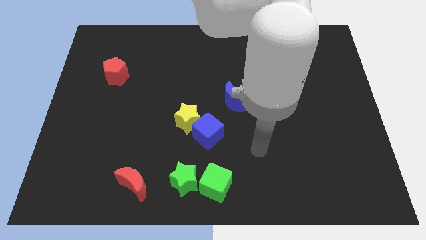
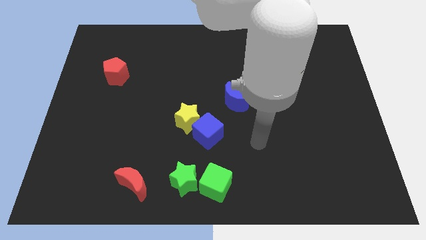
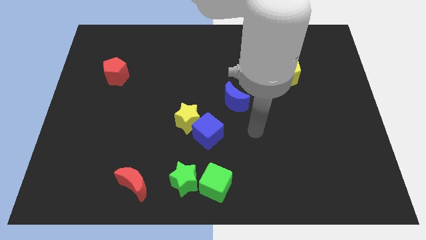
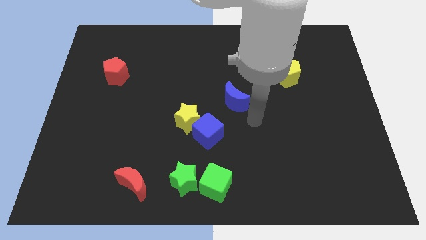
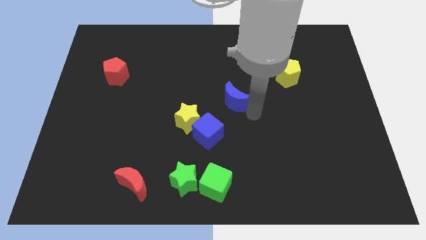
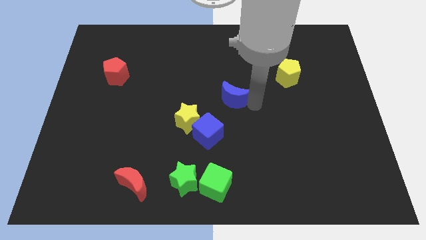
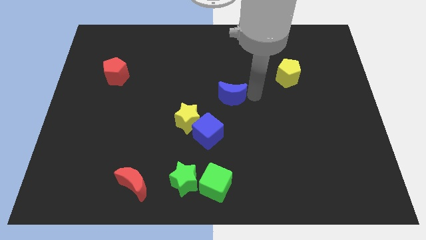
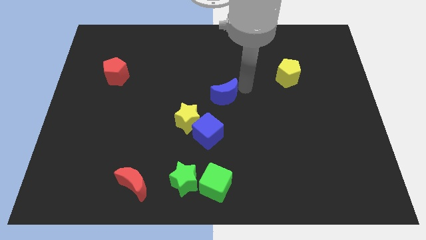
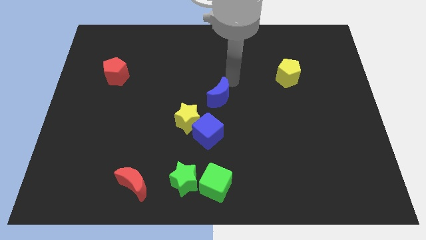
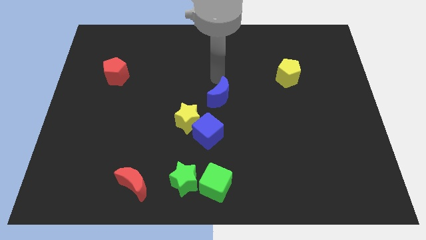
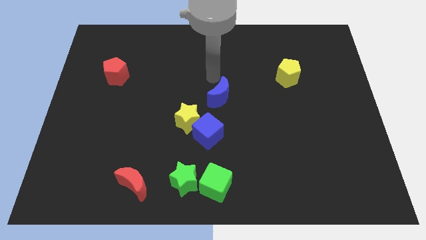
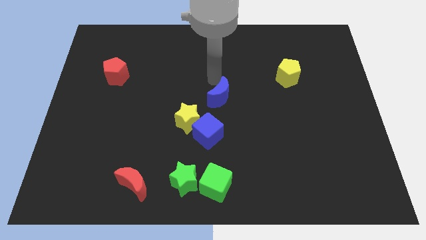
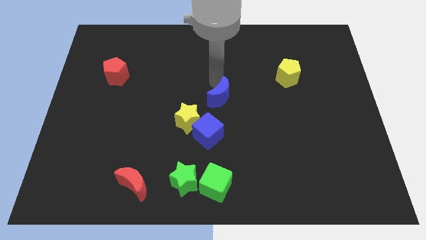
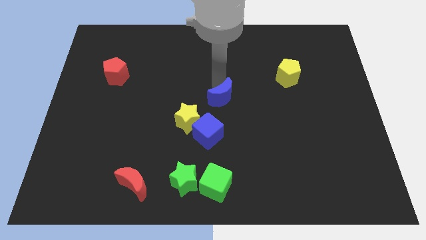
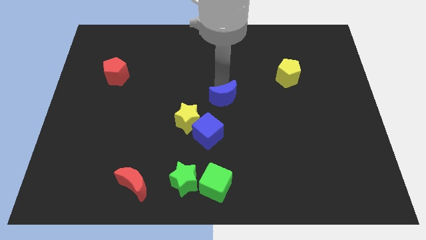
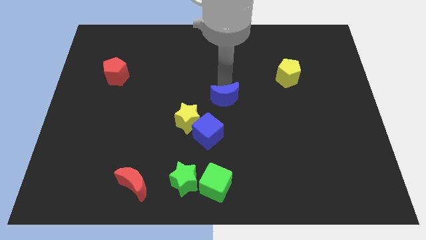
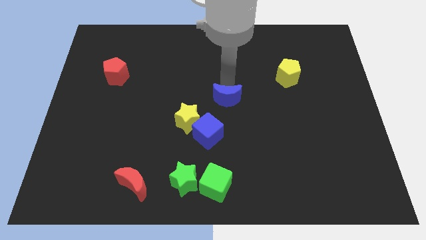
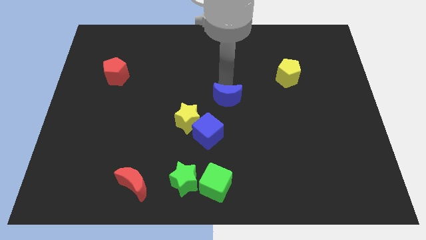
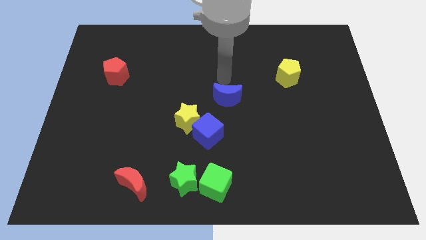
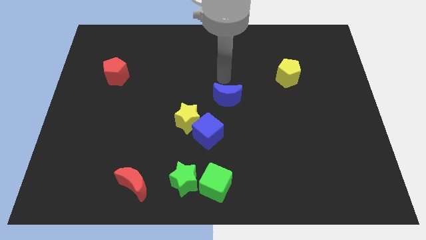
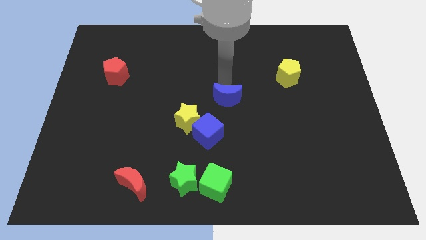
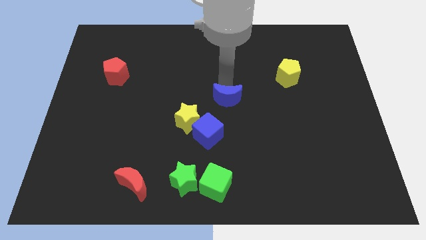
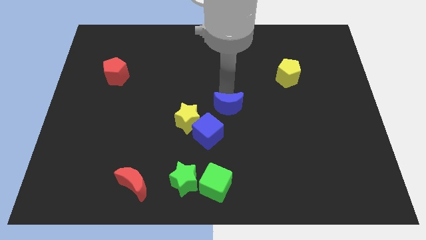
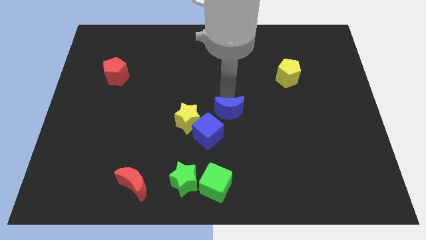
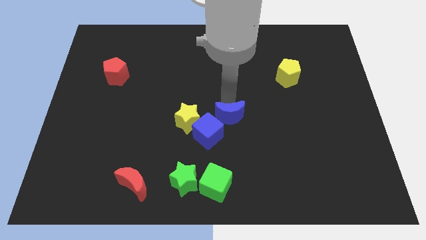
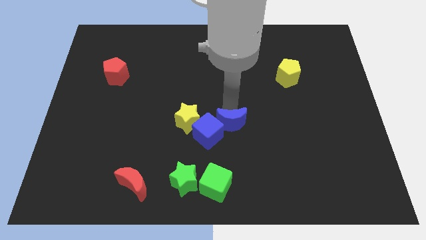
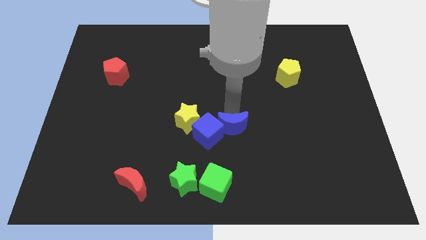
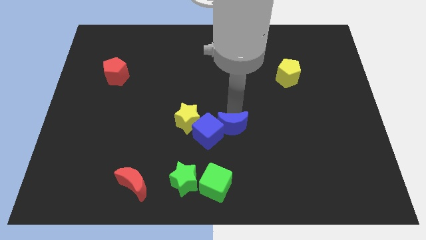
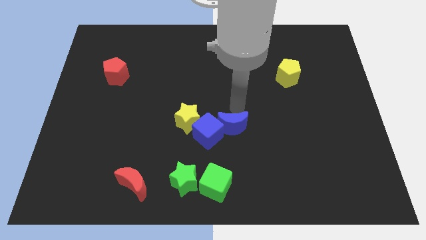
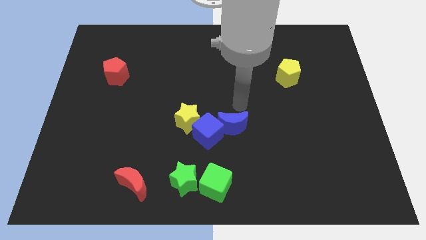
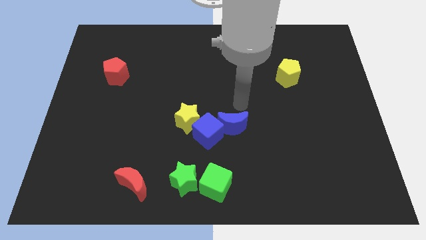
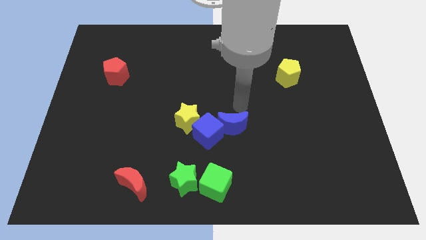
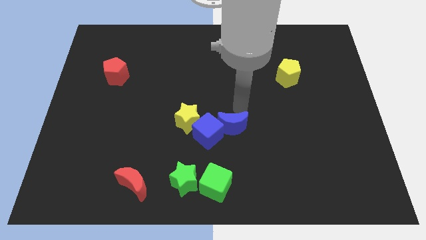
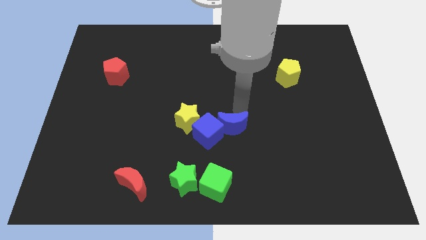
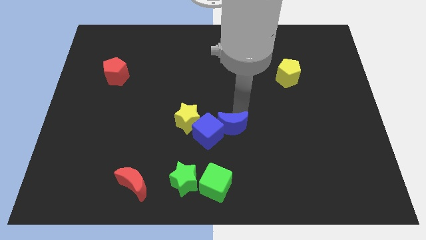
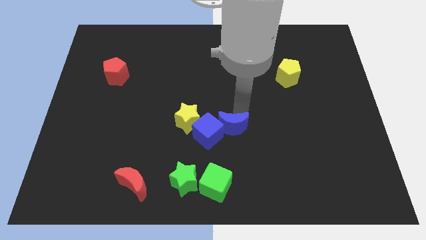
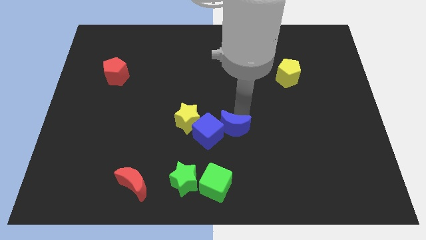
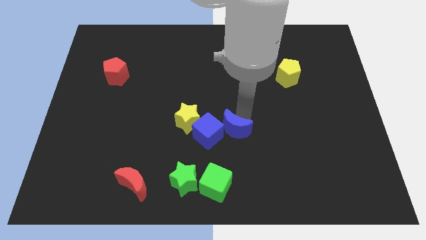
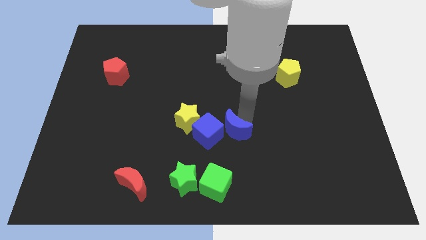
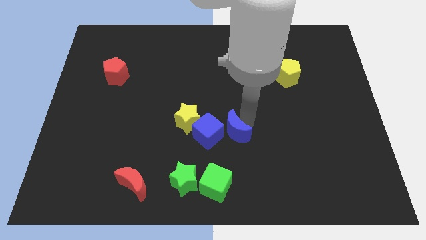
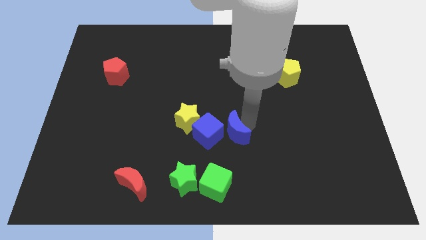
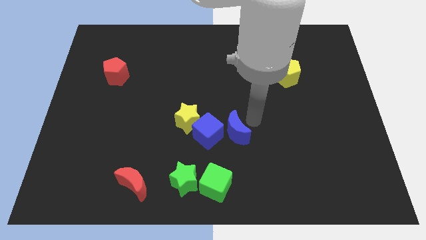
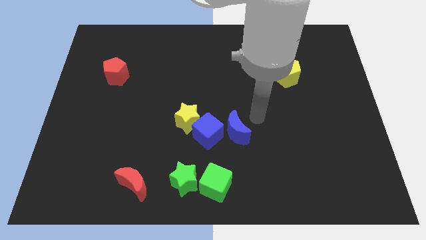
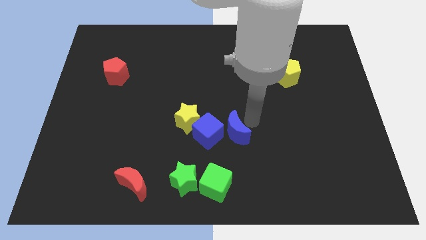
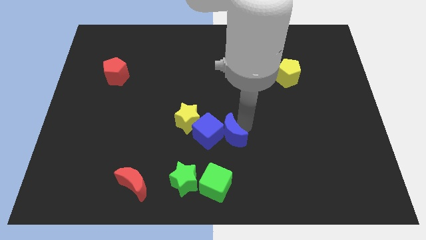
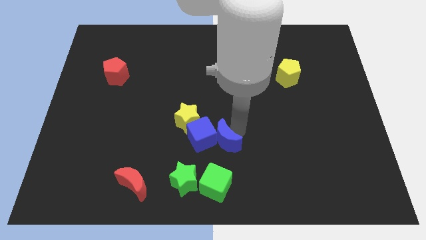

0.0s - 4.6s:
slightly push the blue moon downwards and to the left diagonally

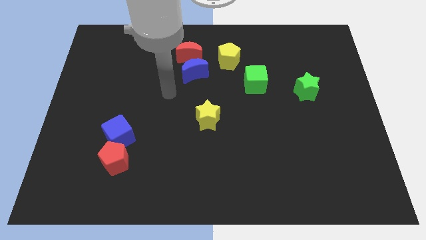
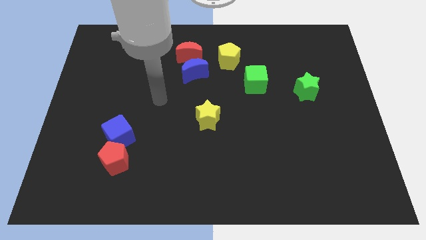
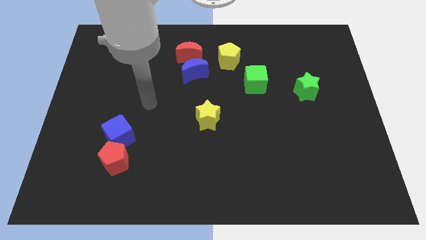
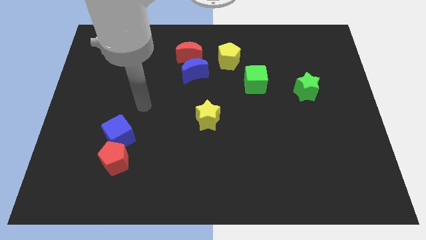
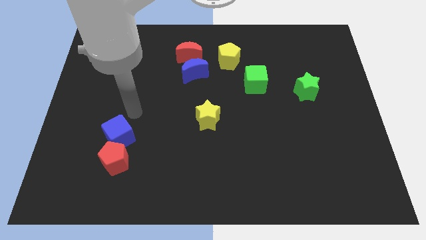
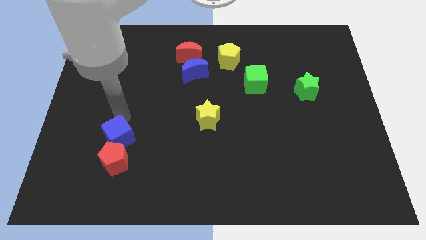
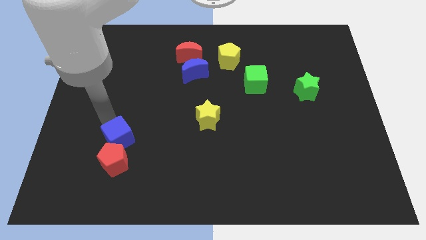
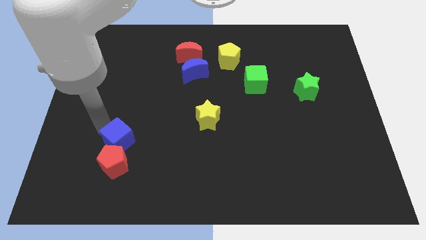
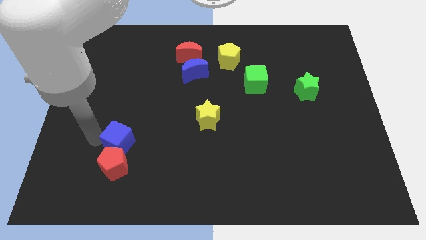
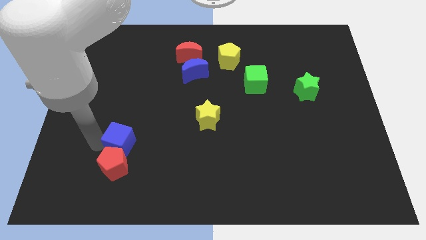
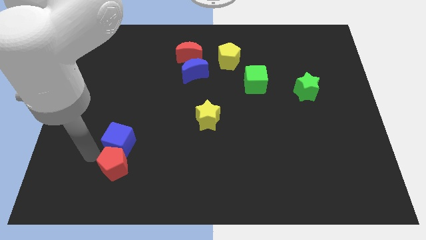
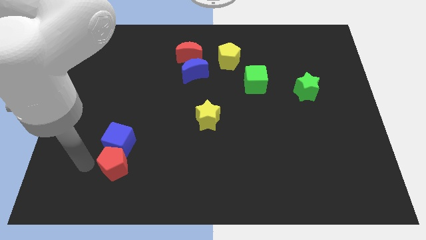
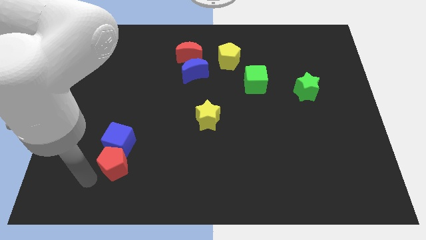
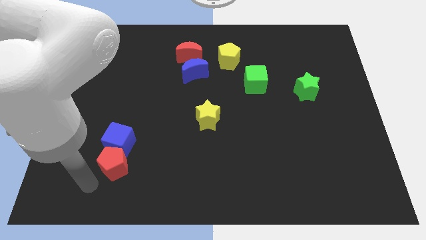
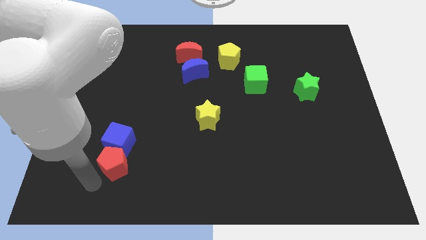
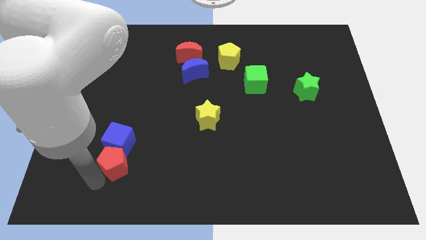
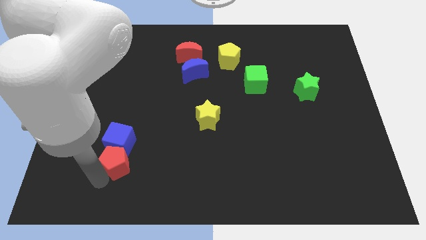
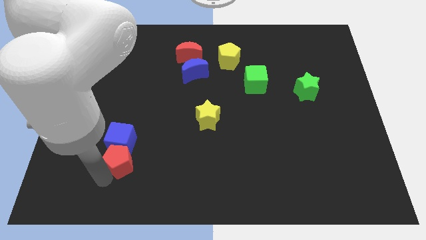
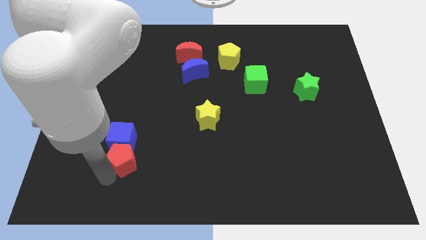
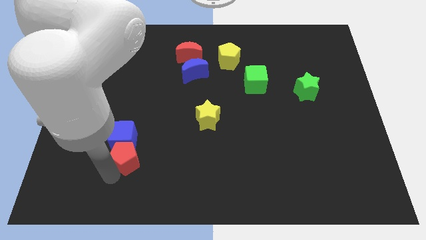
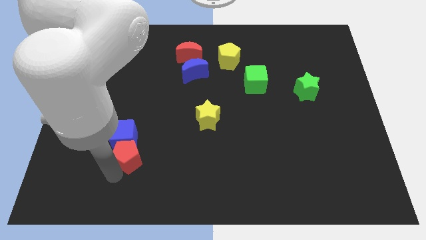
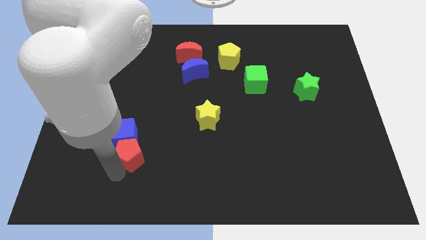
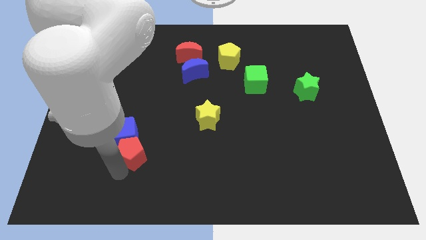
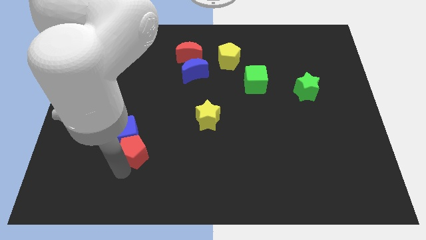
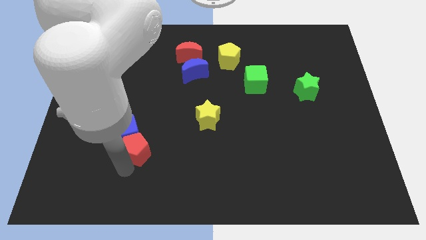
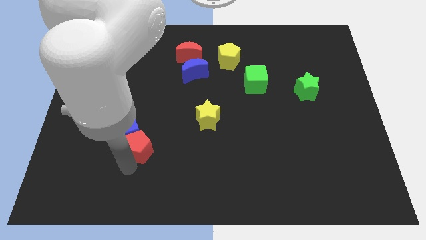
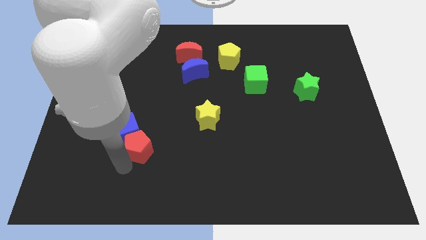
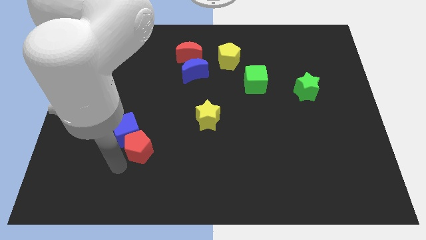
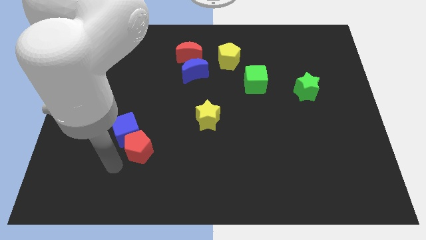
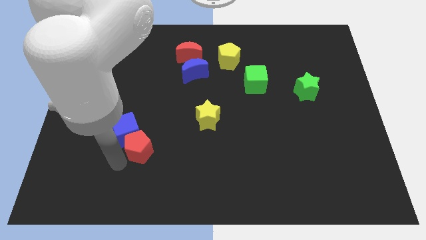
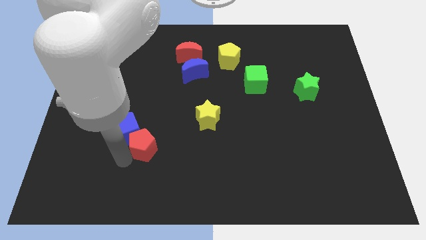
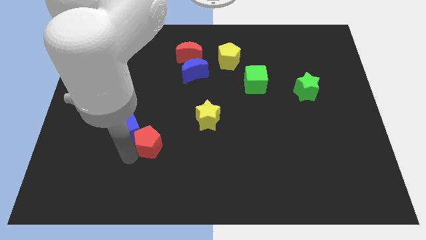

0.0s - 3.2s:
slide the red pentagon upwards and then to the right a little

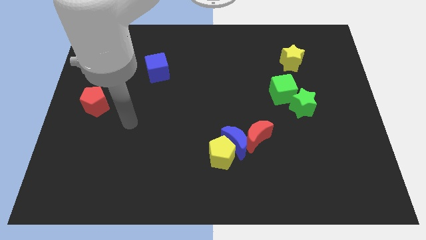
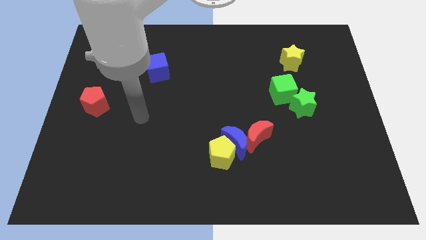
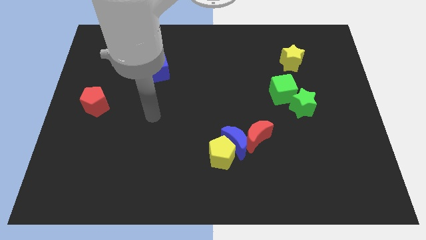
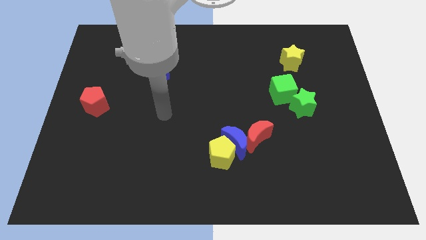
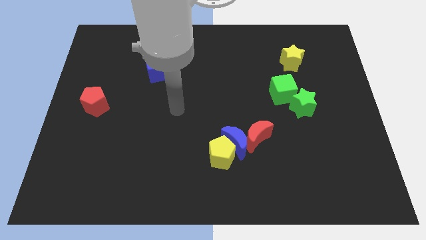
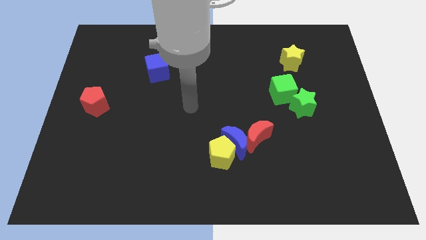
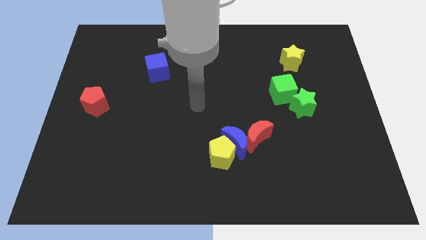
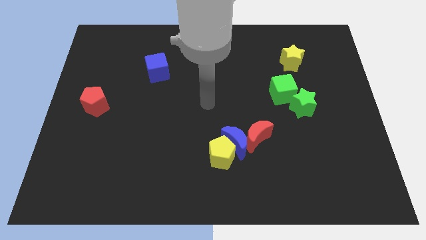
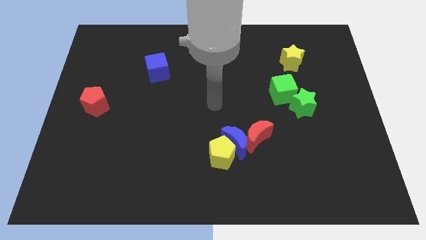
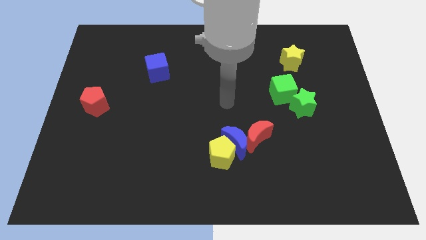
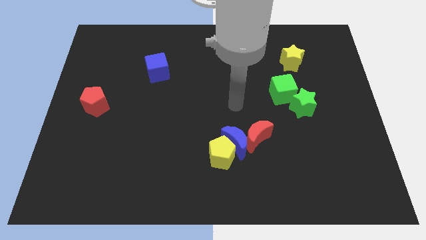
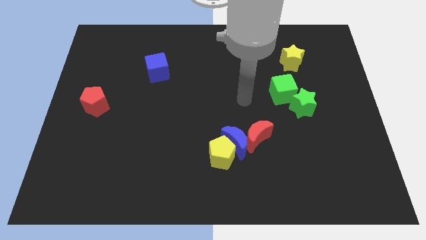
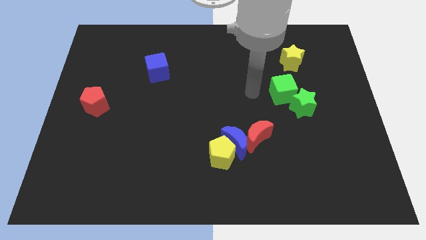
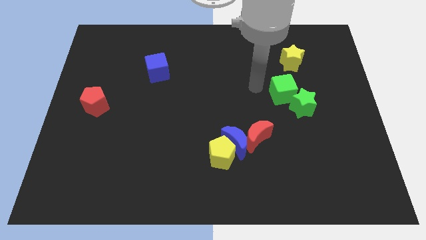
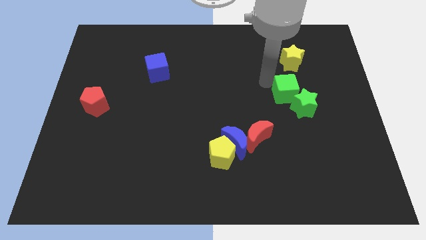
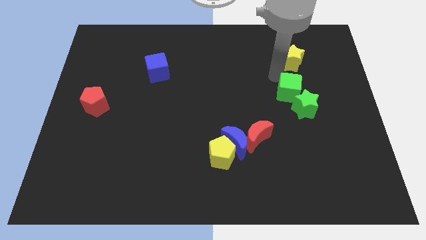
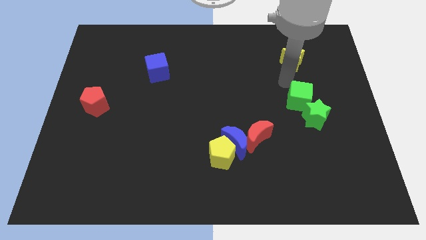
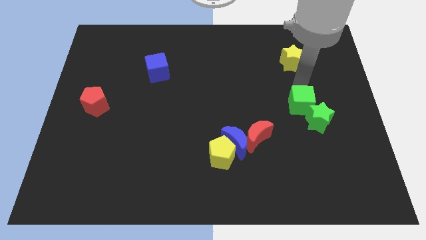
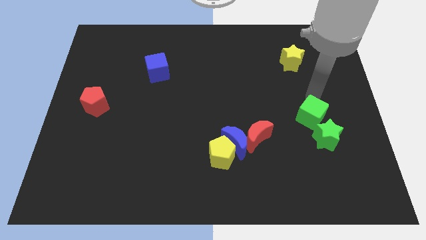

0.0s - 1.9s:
slightly push the green star downwards
